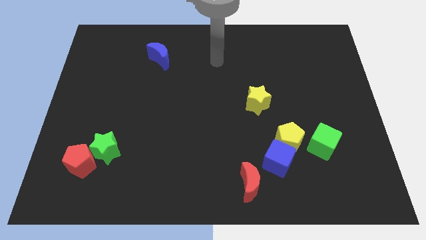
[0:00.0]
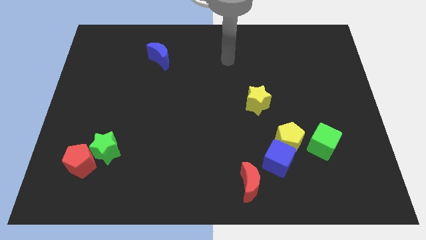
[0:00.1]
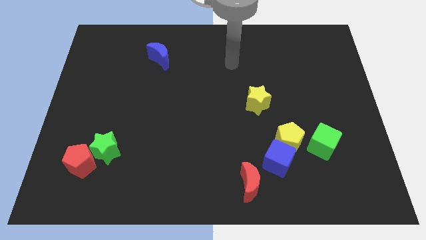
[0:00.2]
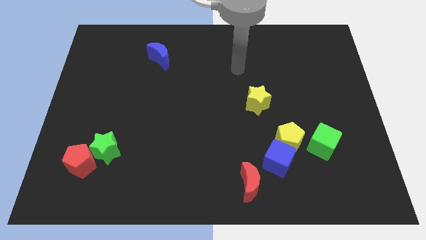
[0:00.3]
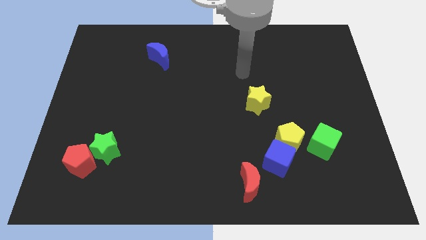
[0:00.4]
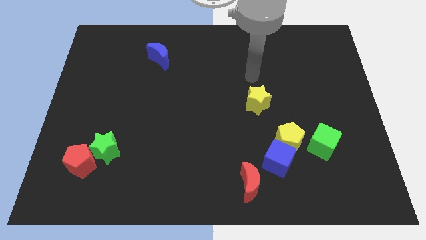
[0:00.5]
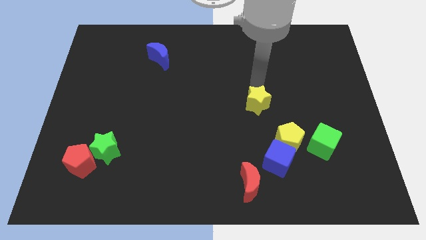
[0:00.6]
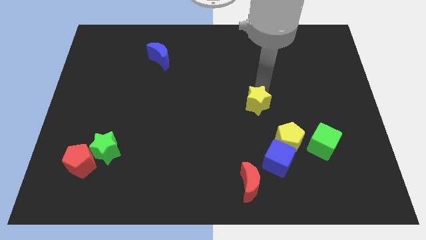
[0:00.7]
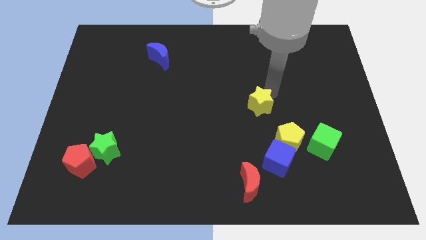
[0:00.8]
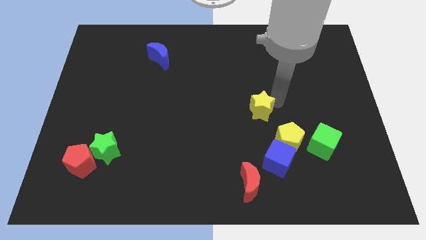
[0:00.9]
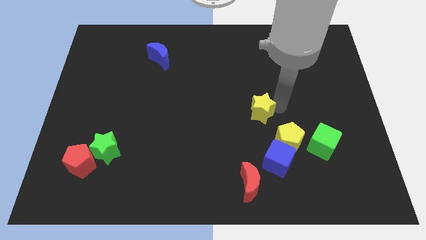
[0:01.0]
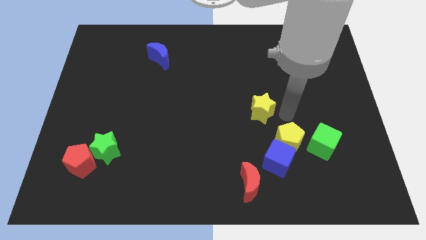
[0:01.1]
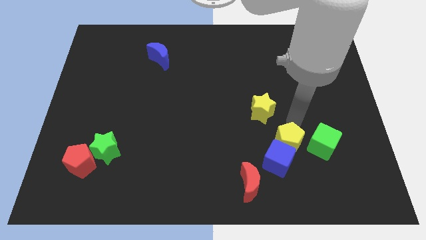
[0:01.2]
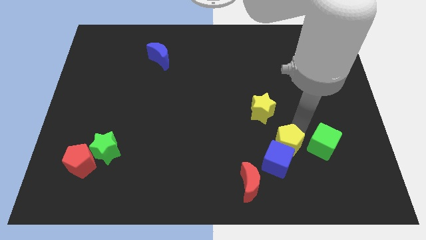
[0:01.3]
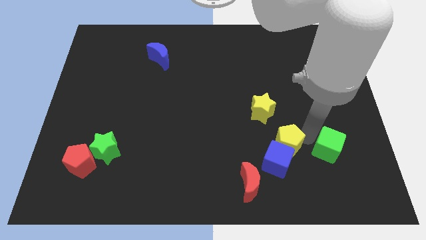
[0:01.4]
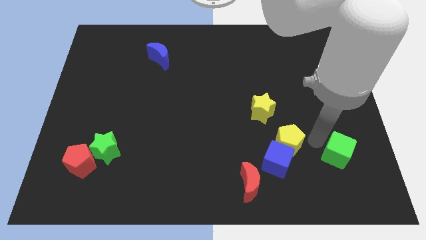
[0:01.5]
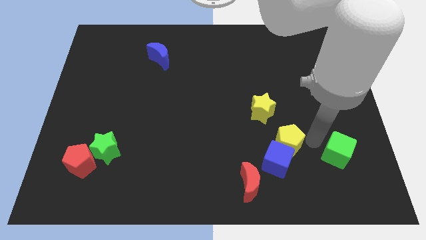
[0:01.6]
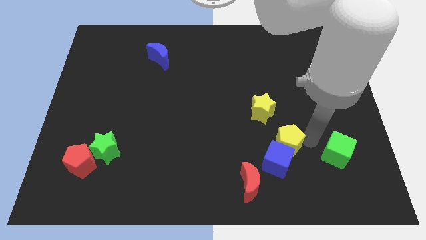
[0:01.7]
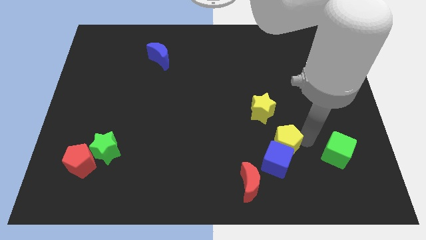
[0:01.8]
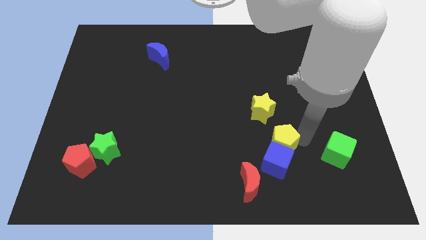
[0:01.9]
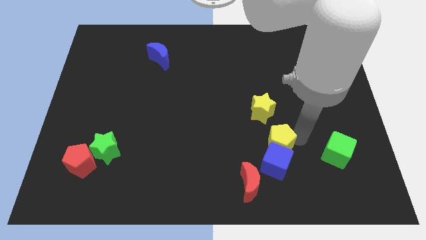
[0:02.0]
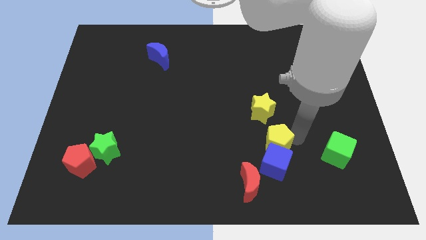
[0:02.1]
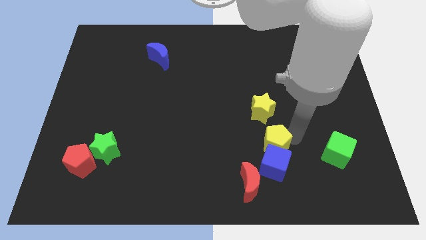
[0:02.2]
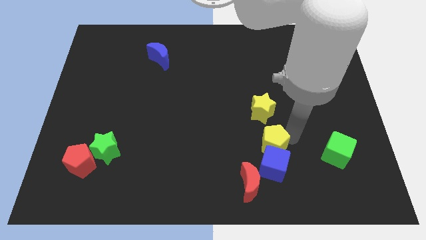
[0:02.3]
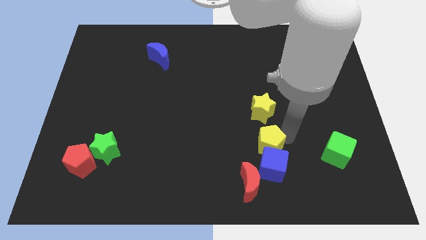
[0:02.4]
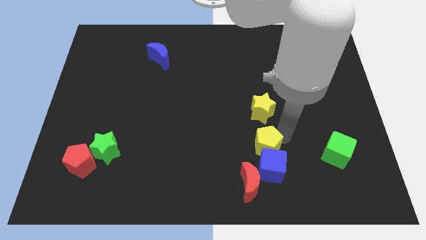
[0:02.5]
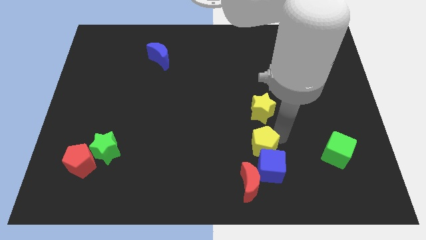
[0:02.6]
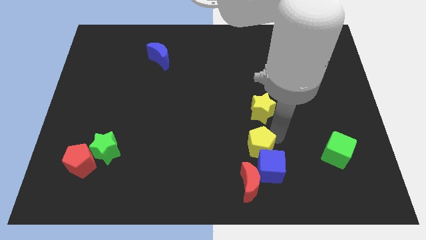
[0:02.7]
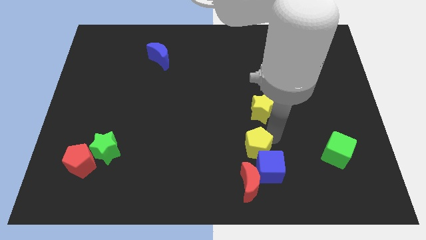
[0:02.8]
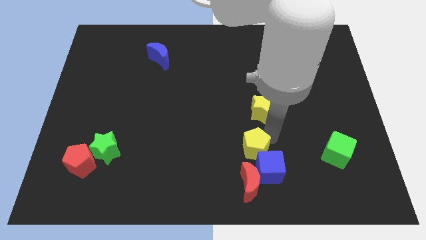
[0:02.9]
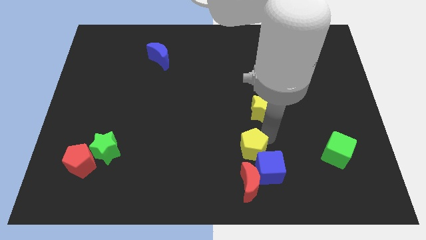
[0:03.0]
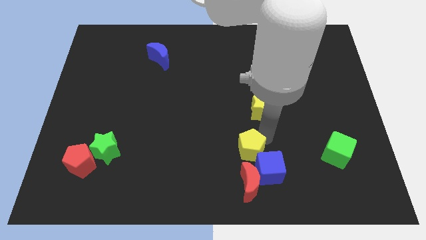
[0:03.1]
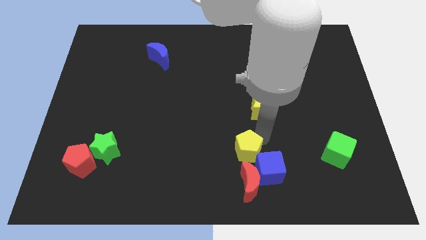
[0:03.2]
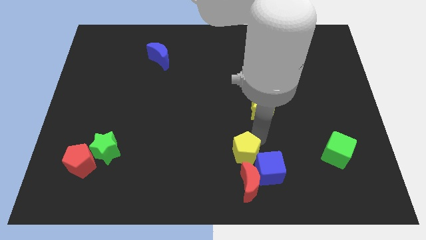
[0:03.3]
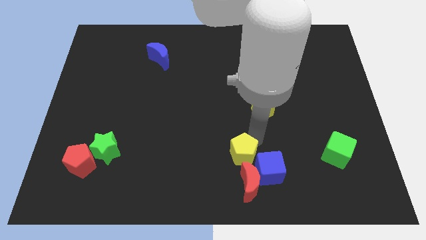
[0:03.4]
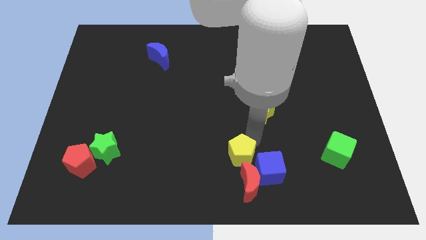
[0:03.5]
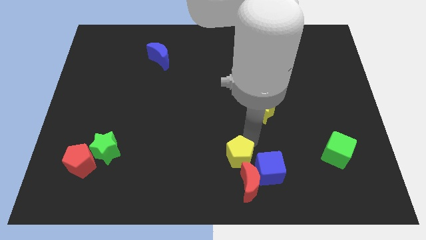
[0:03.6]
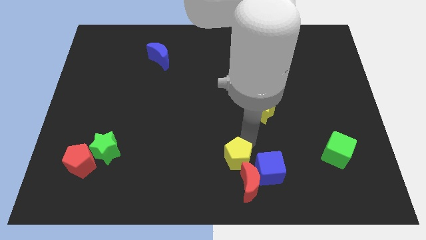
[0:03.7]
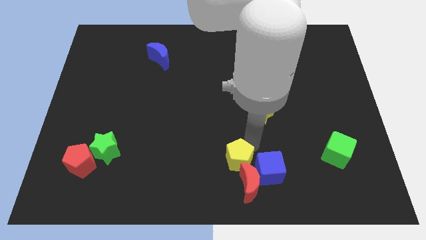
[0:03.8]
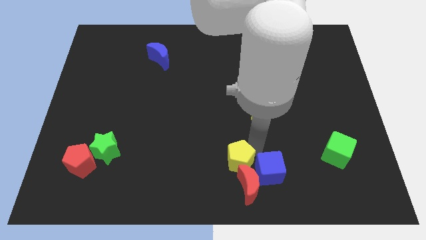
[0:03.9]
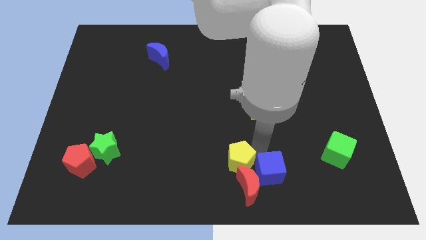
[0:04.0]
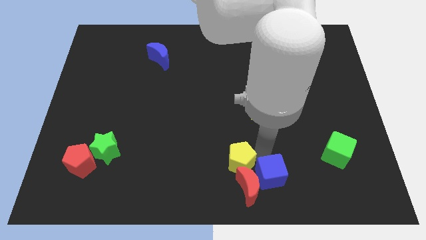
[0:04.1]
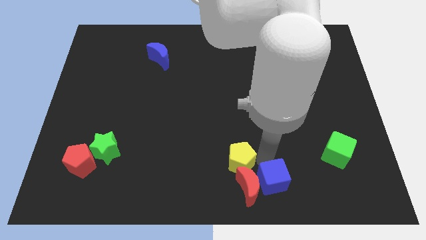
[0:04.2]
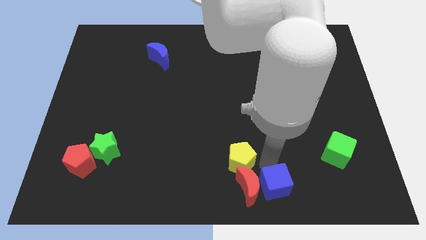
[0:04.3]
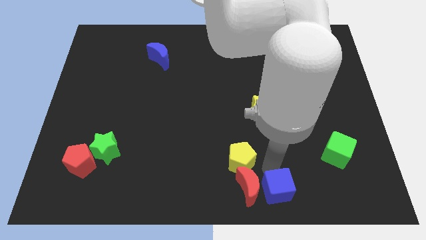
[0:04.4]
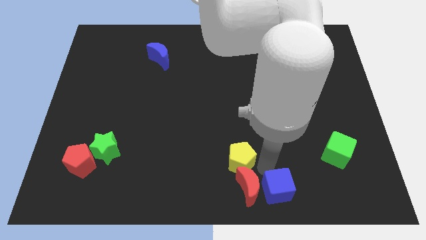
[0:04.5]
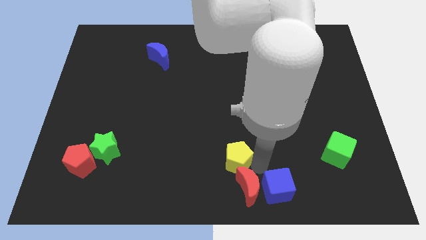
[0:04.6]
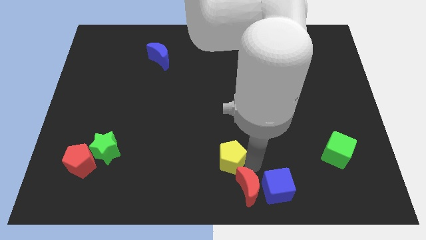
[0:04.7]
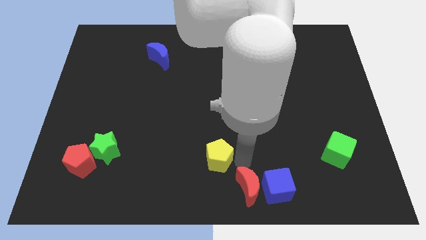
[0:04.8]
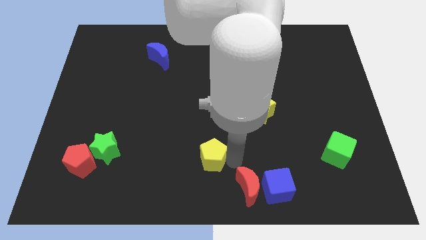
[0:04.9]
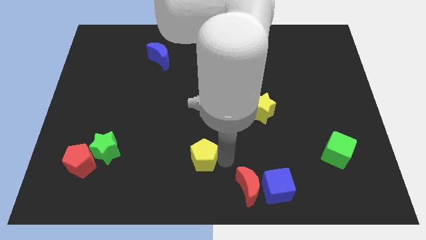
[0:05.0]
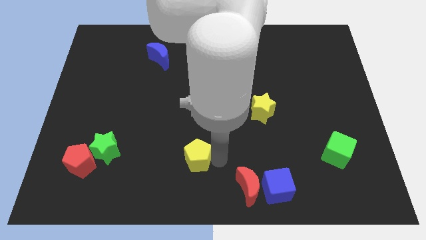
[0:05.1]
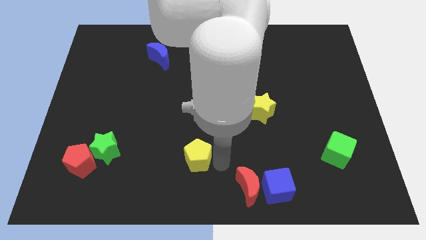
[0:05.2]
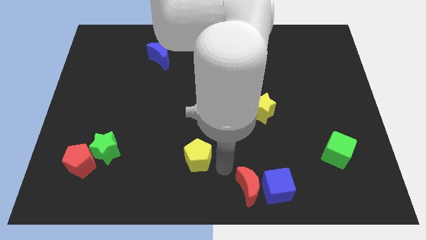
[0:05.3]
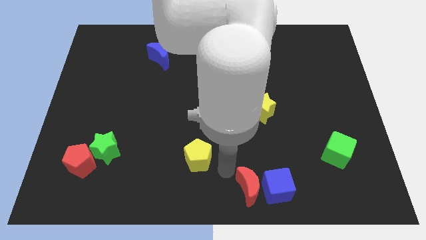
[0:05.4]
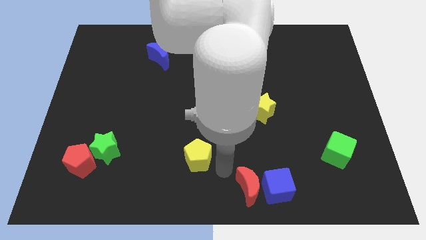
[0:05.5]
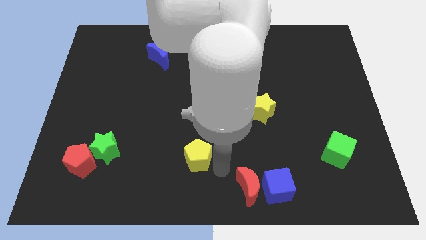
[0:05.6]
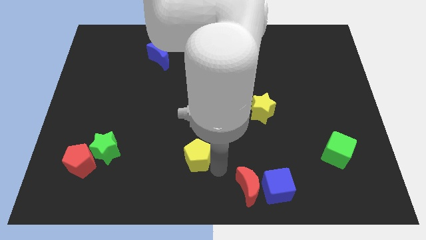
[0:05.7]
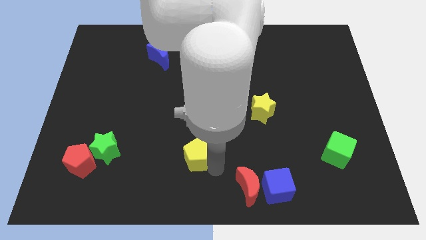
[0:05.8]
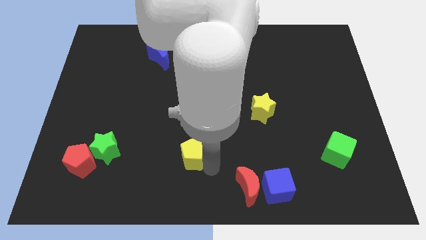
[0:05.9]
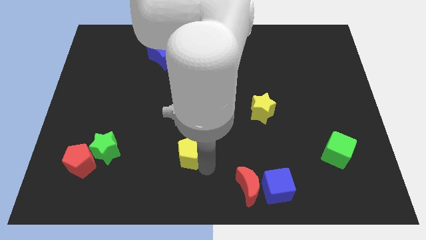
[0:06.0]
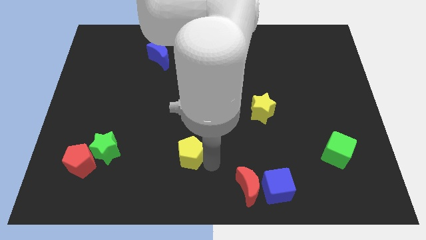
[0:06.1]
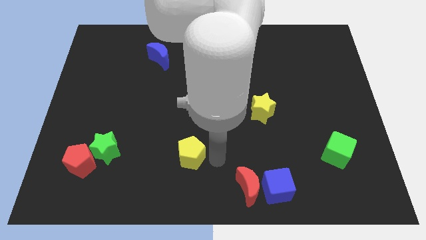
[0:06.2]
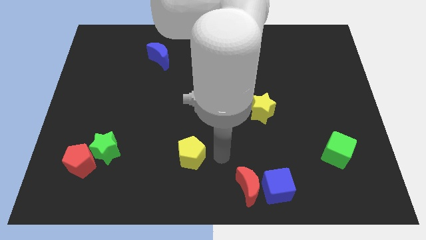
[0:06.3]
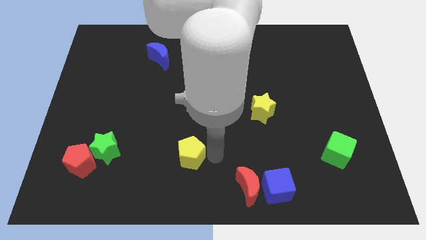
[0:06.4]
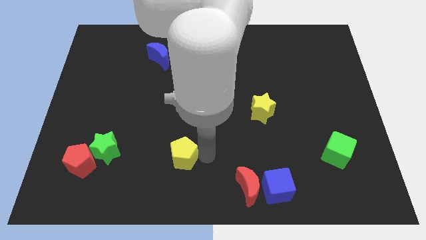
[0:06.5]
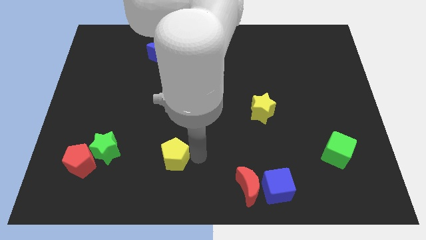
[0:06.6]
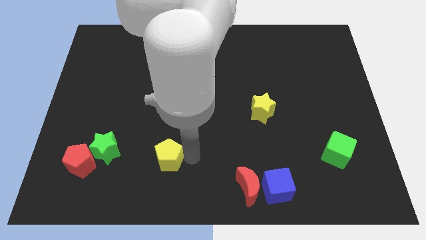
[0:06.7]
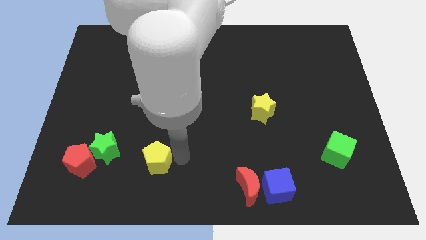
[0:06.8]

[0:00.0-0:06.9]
move the yellow pentagon to the right of the red pentagon
